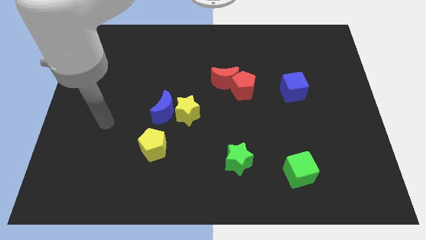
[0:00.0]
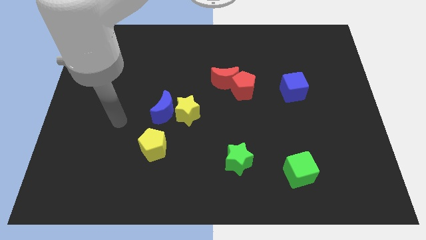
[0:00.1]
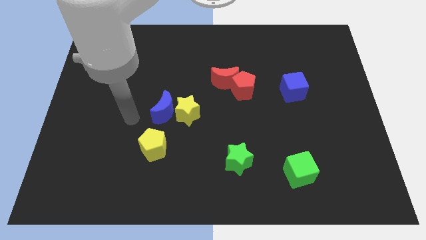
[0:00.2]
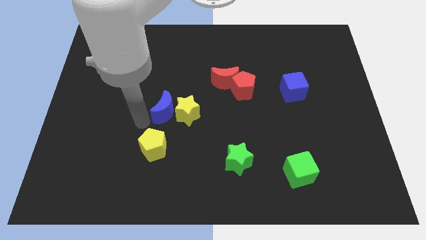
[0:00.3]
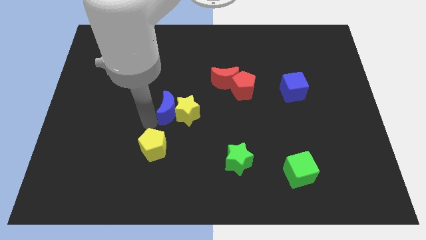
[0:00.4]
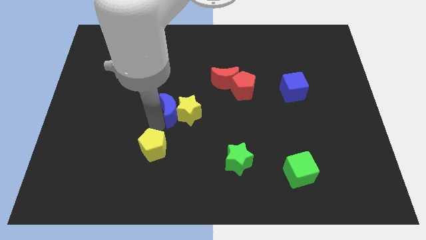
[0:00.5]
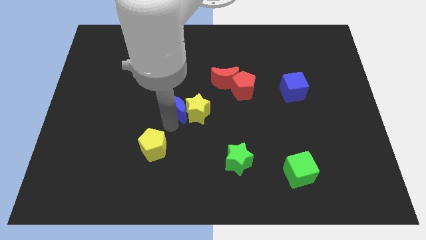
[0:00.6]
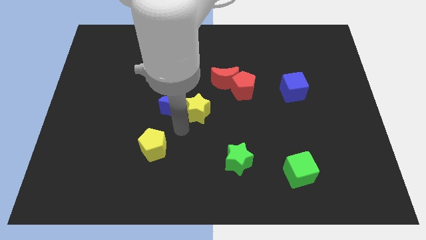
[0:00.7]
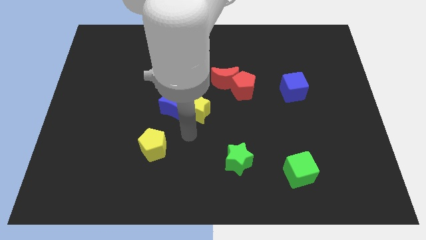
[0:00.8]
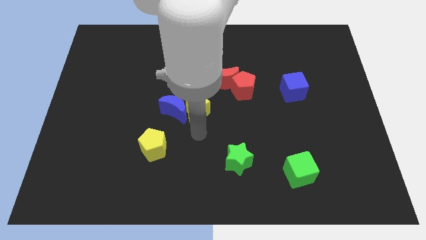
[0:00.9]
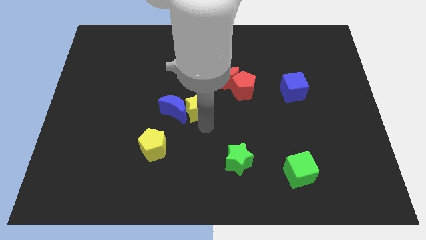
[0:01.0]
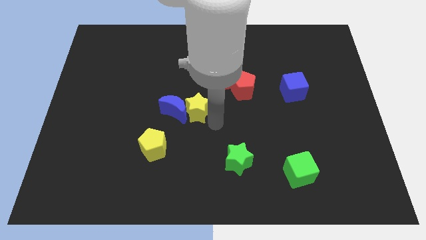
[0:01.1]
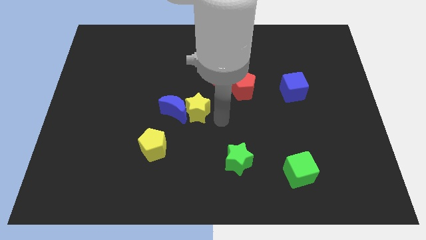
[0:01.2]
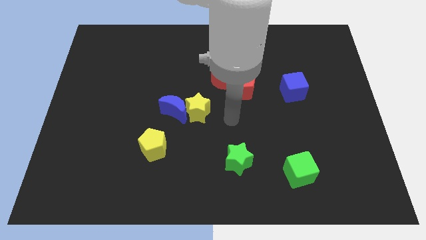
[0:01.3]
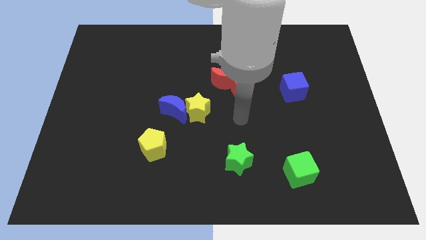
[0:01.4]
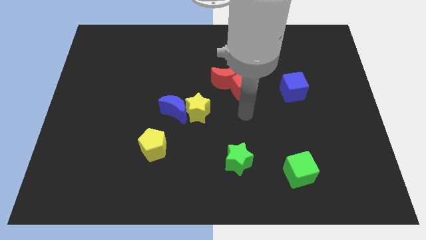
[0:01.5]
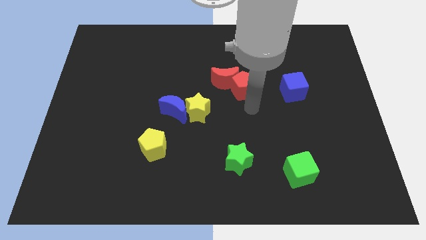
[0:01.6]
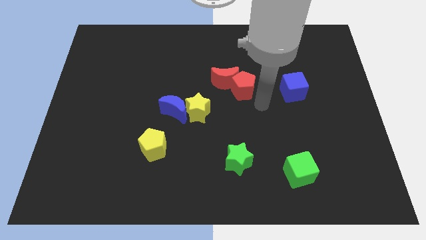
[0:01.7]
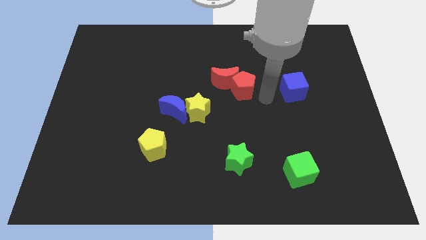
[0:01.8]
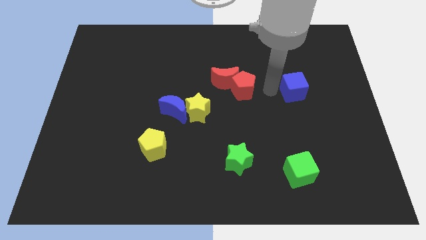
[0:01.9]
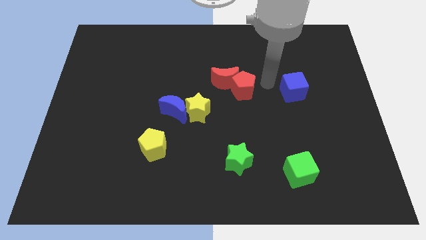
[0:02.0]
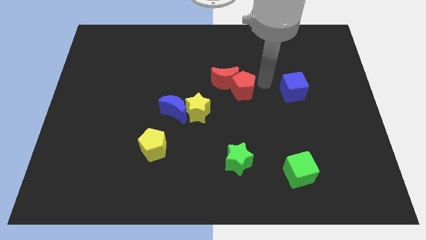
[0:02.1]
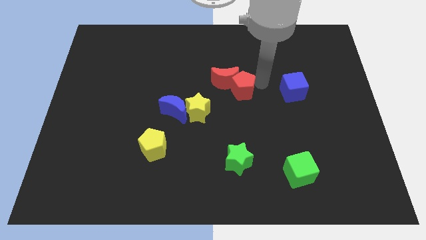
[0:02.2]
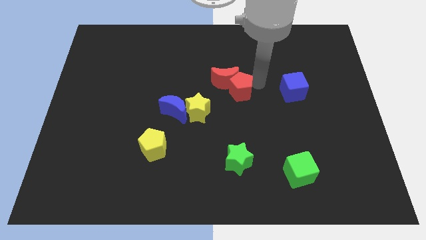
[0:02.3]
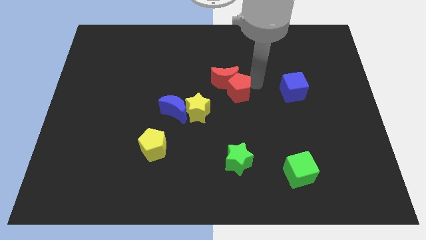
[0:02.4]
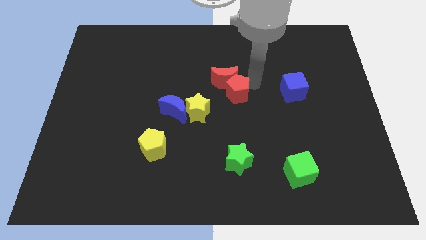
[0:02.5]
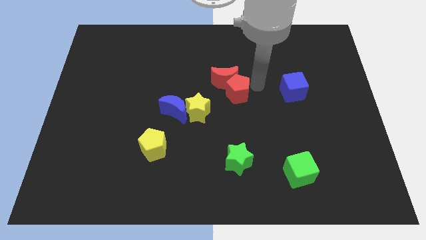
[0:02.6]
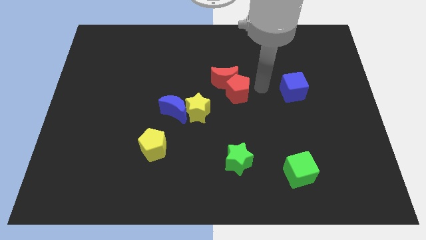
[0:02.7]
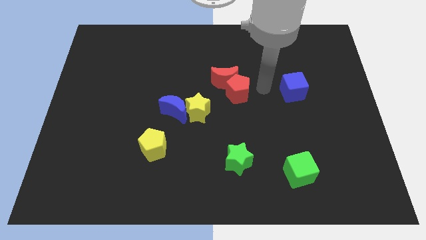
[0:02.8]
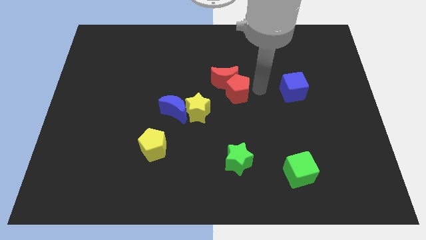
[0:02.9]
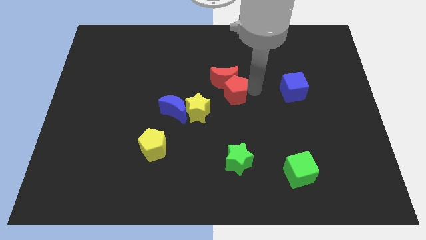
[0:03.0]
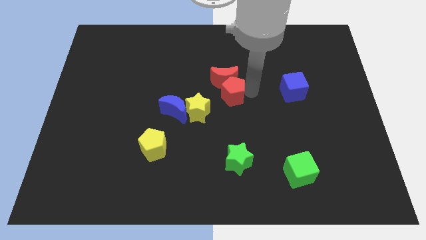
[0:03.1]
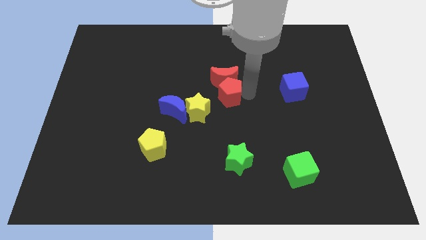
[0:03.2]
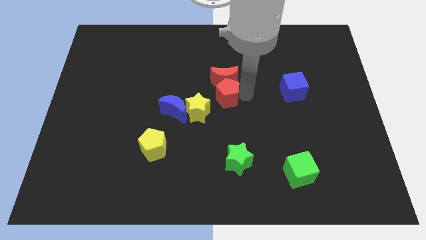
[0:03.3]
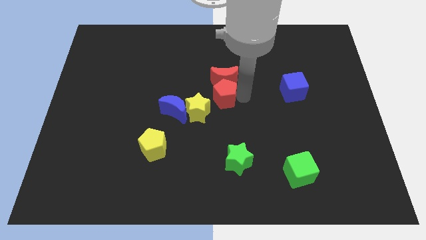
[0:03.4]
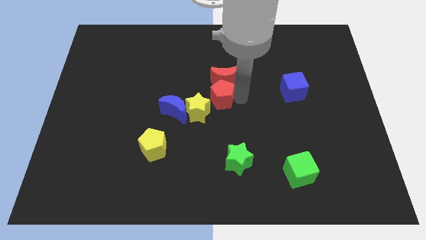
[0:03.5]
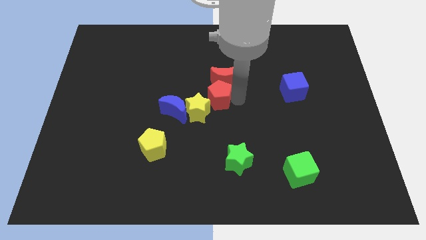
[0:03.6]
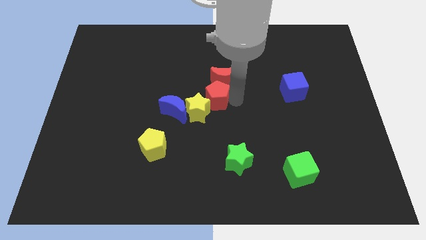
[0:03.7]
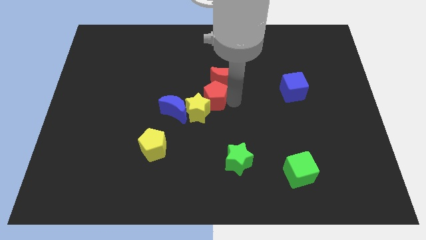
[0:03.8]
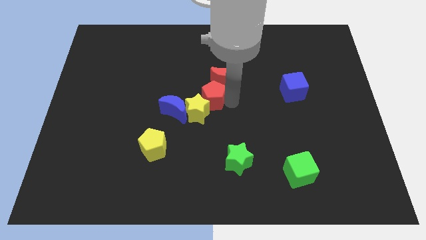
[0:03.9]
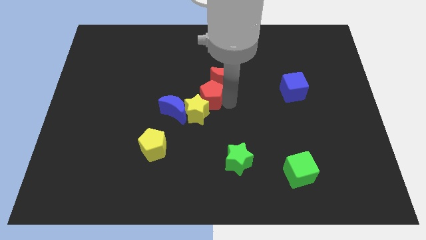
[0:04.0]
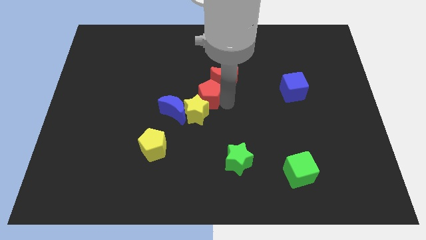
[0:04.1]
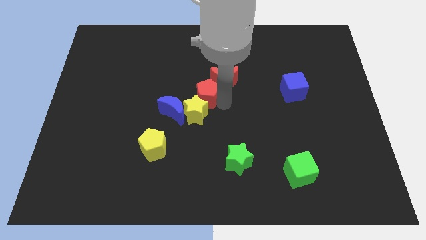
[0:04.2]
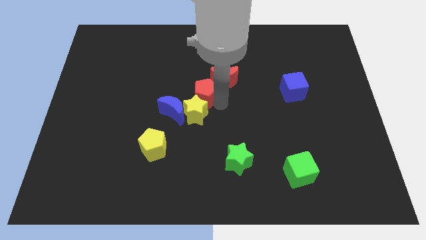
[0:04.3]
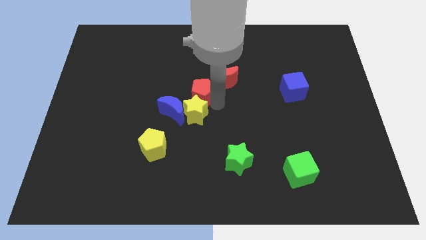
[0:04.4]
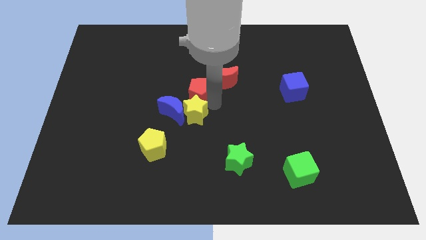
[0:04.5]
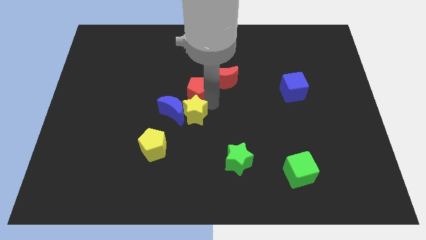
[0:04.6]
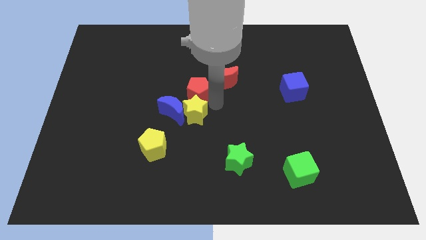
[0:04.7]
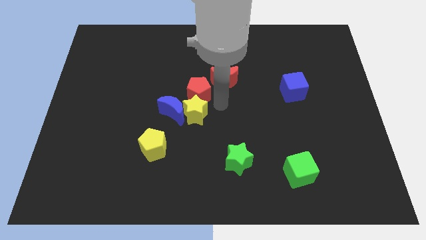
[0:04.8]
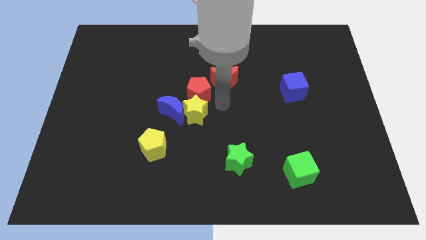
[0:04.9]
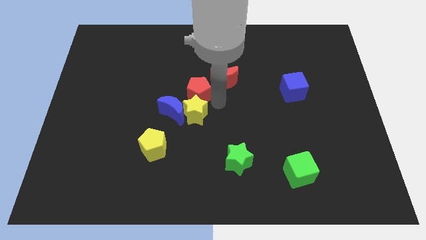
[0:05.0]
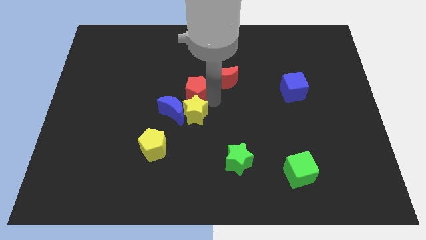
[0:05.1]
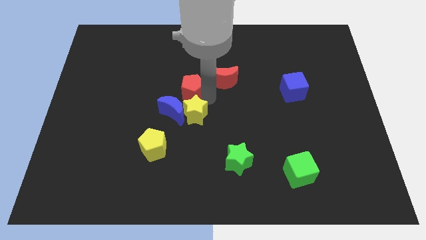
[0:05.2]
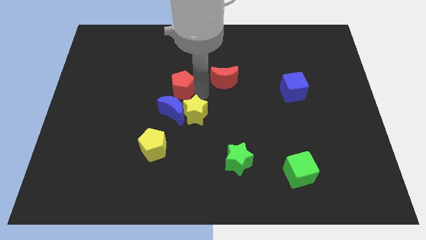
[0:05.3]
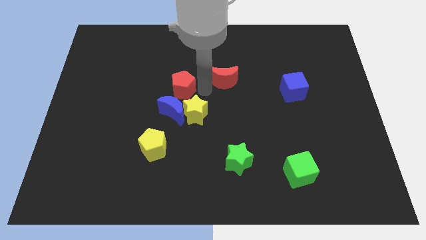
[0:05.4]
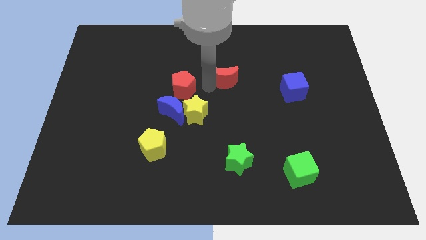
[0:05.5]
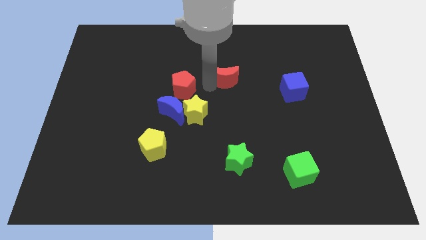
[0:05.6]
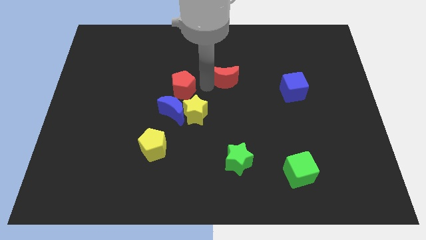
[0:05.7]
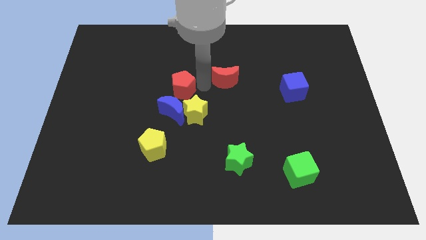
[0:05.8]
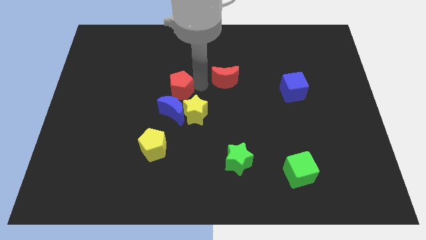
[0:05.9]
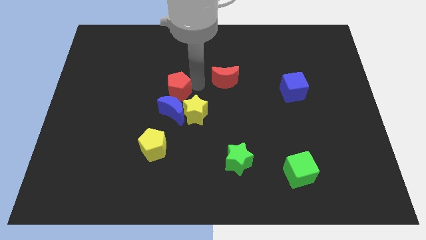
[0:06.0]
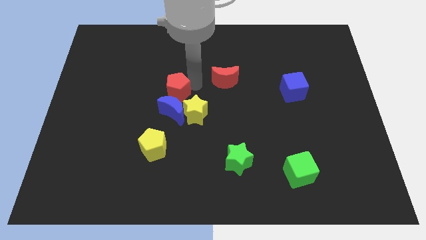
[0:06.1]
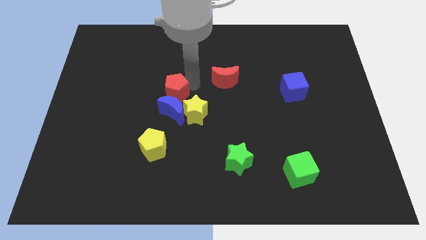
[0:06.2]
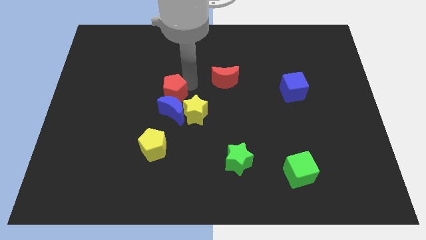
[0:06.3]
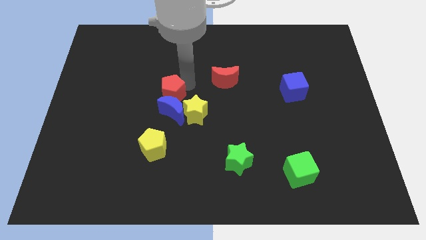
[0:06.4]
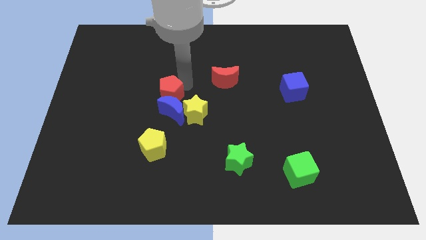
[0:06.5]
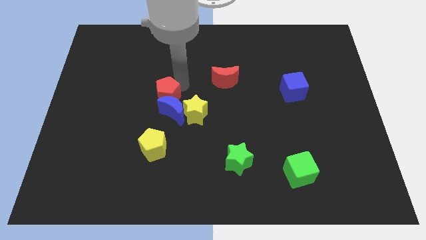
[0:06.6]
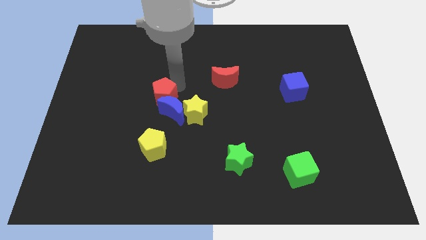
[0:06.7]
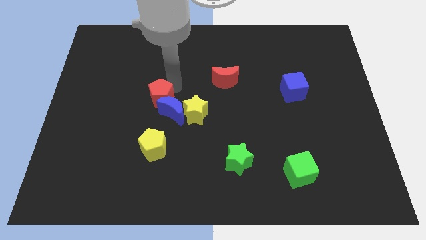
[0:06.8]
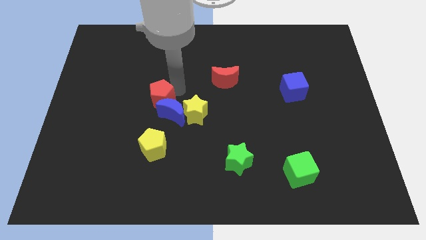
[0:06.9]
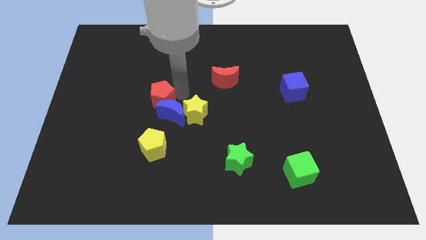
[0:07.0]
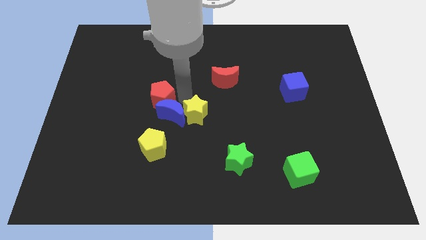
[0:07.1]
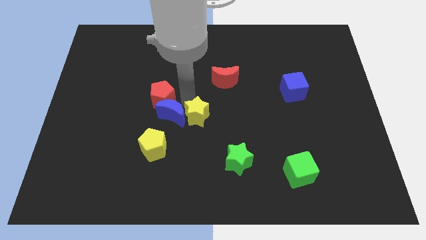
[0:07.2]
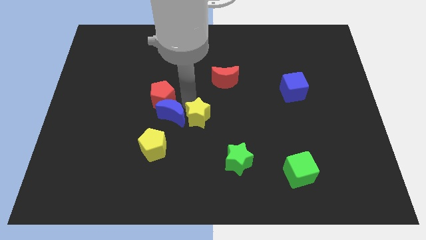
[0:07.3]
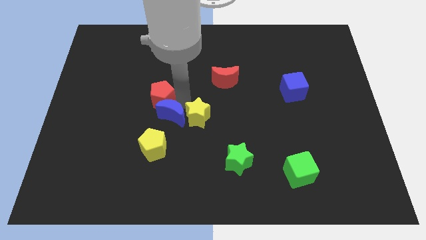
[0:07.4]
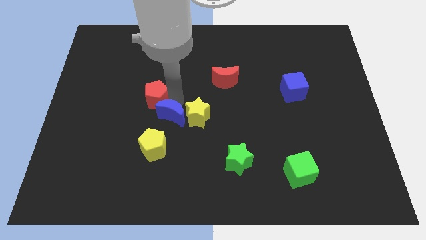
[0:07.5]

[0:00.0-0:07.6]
slide the red pentagon to the left

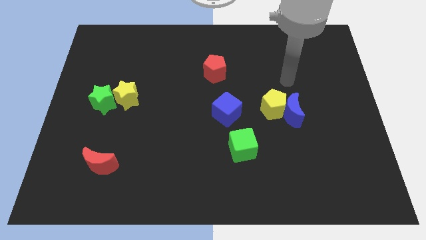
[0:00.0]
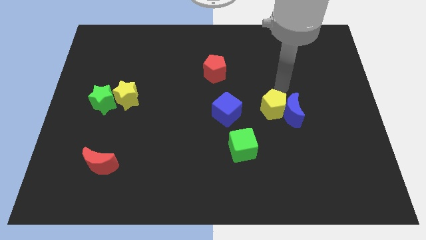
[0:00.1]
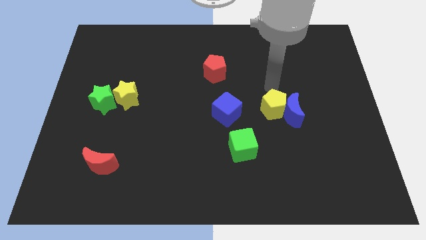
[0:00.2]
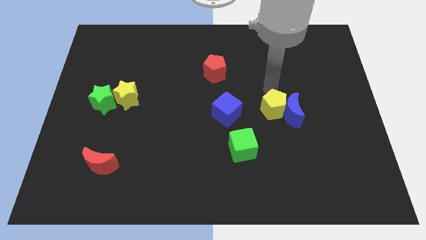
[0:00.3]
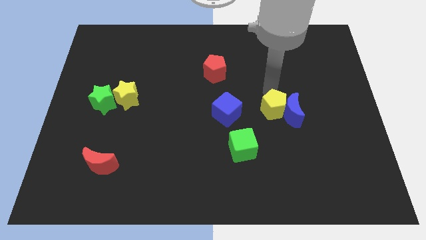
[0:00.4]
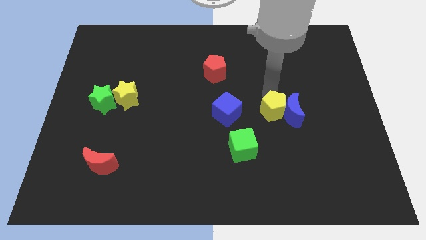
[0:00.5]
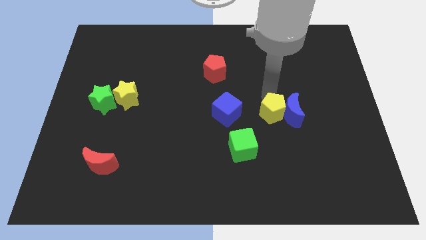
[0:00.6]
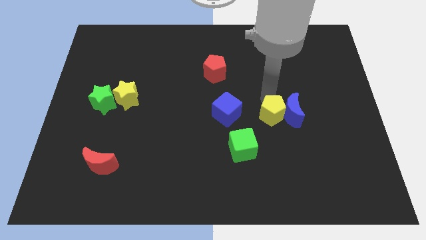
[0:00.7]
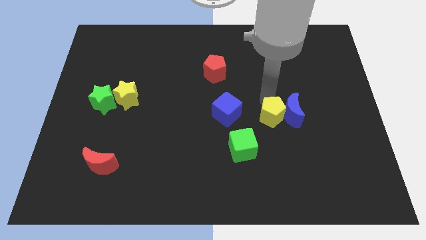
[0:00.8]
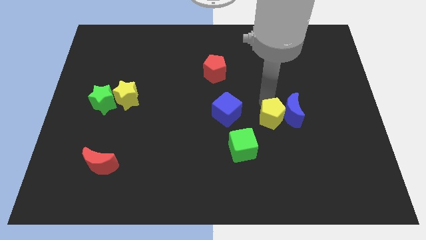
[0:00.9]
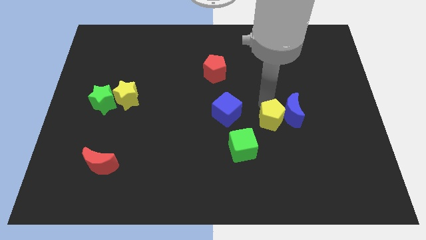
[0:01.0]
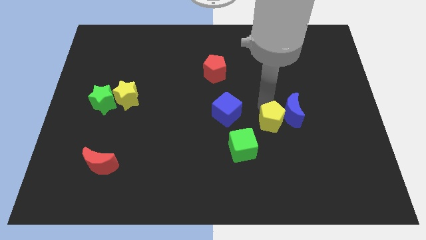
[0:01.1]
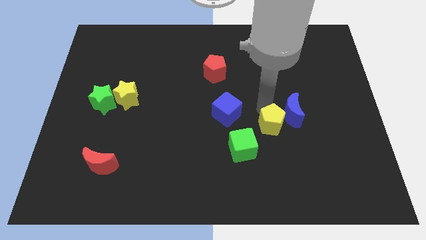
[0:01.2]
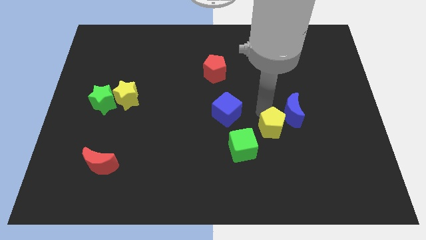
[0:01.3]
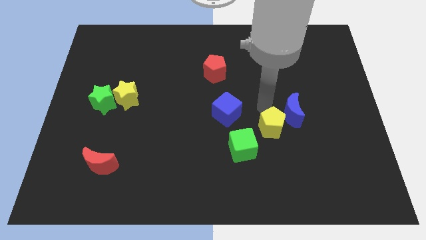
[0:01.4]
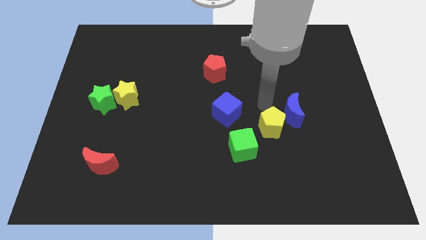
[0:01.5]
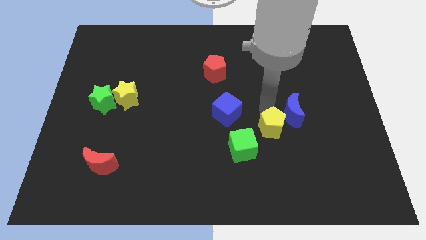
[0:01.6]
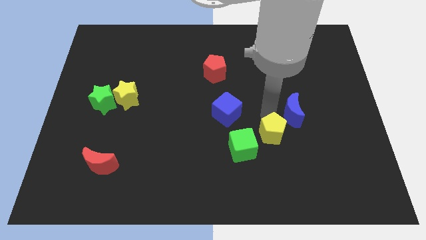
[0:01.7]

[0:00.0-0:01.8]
push the yellow pentagon downwards a little bit
